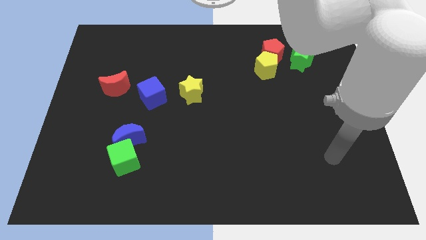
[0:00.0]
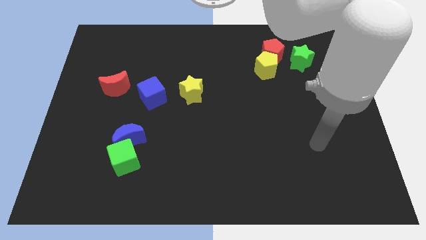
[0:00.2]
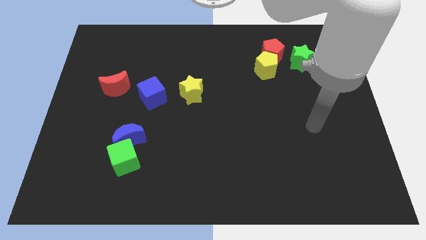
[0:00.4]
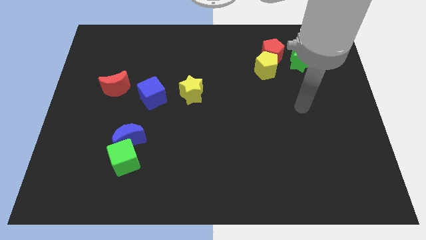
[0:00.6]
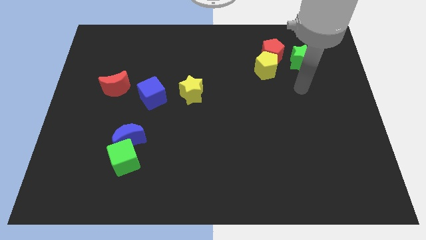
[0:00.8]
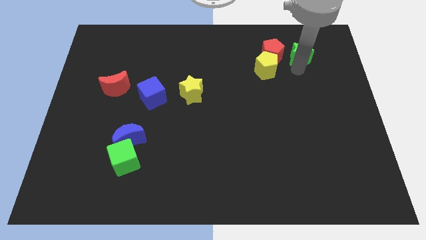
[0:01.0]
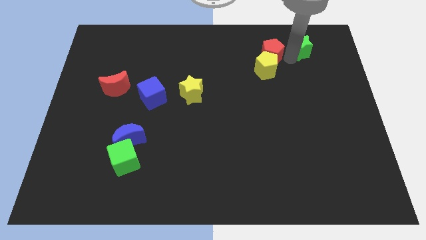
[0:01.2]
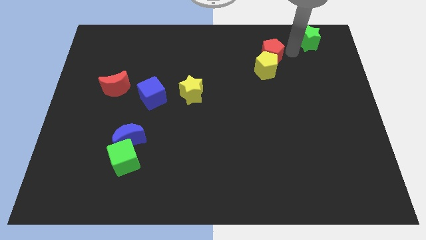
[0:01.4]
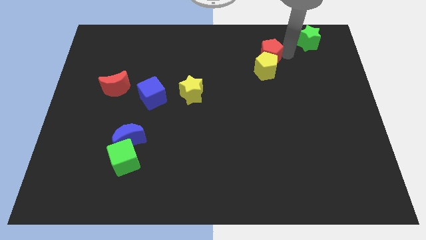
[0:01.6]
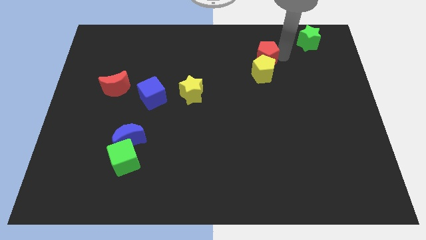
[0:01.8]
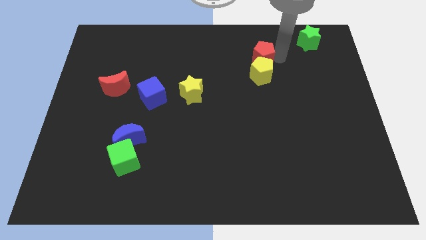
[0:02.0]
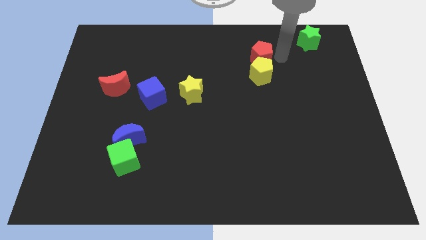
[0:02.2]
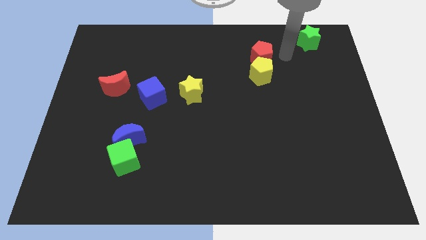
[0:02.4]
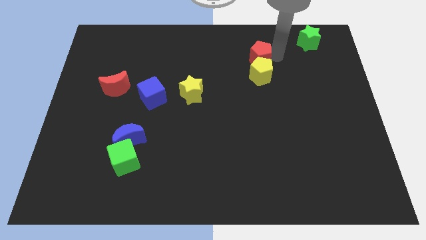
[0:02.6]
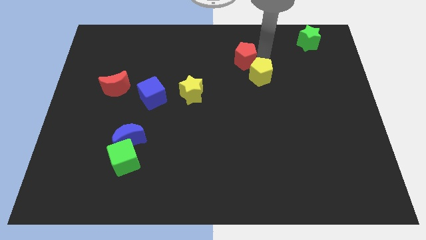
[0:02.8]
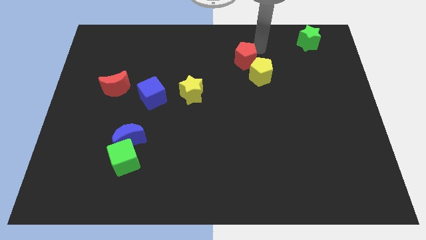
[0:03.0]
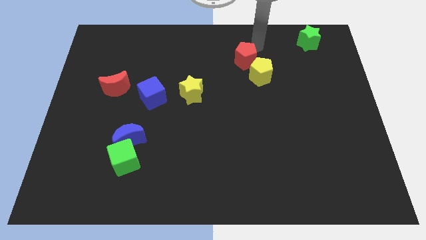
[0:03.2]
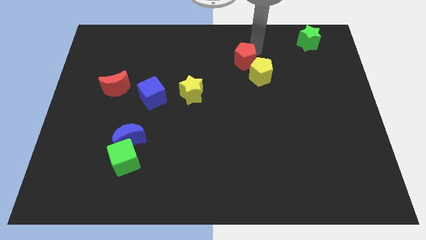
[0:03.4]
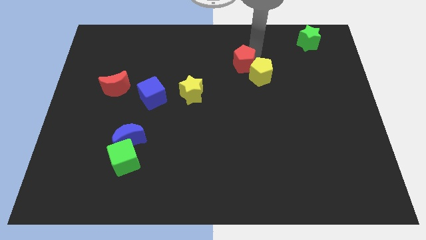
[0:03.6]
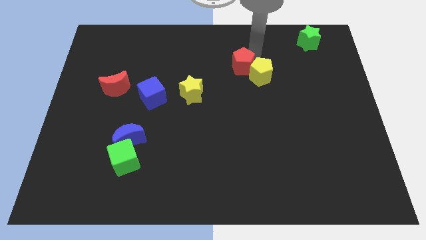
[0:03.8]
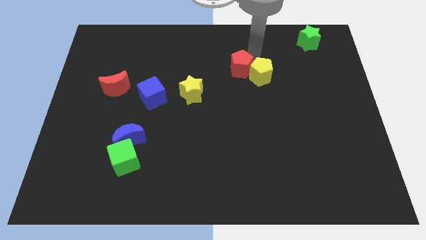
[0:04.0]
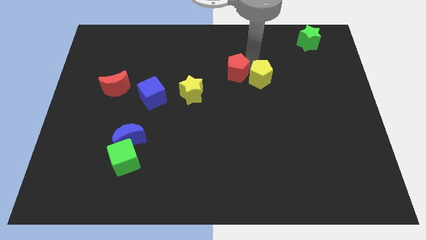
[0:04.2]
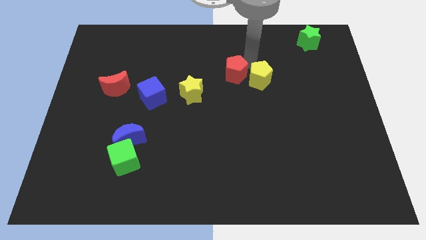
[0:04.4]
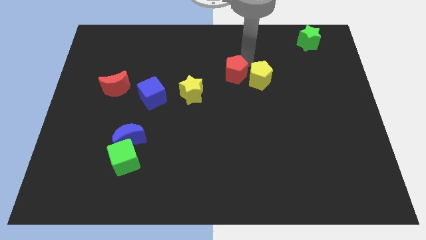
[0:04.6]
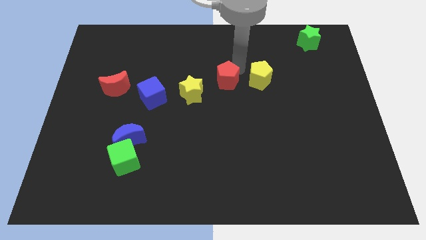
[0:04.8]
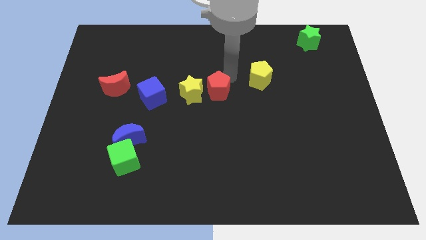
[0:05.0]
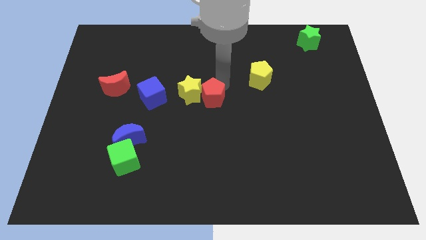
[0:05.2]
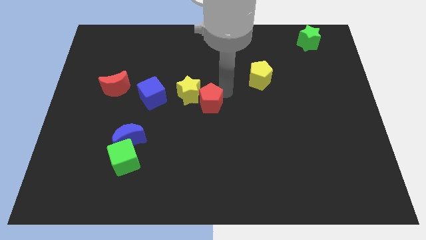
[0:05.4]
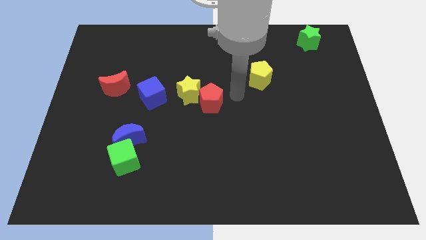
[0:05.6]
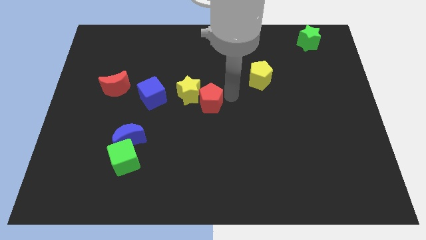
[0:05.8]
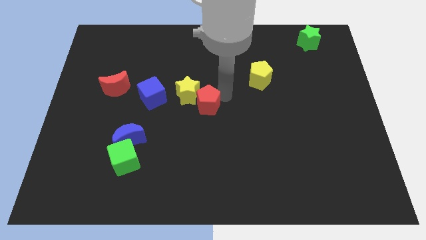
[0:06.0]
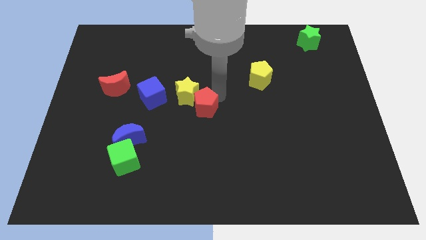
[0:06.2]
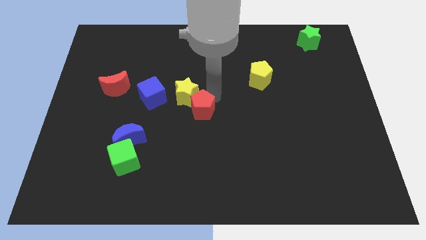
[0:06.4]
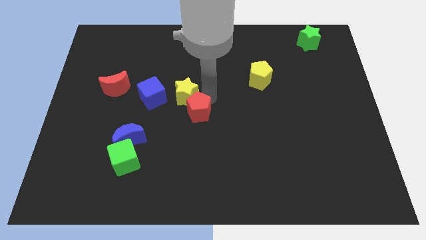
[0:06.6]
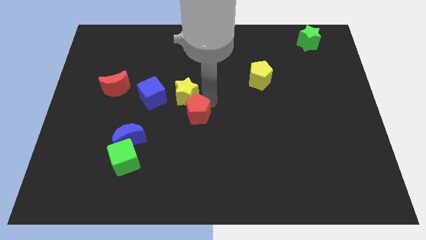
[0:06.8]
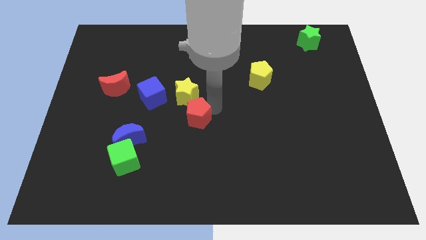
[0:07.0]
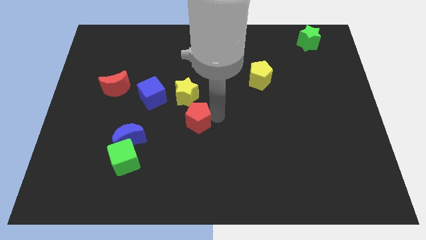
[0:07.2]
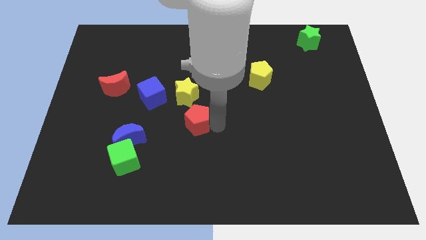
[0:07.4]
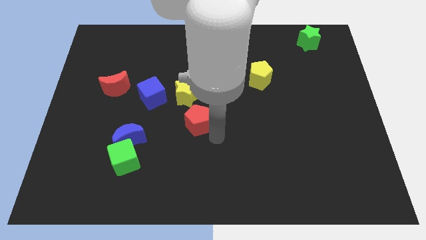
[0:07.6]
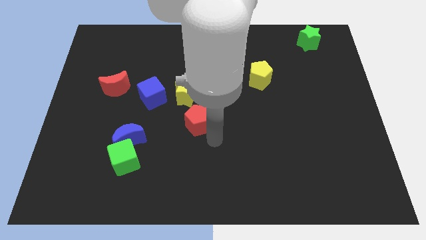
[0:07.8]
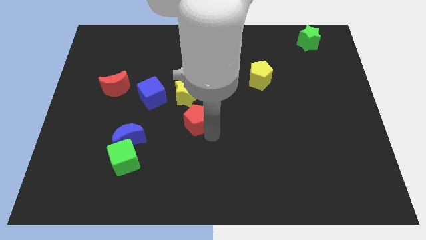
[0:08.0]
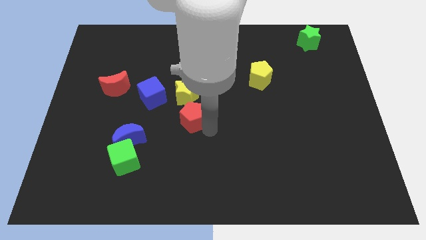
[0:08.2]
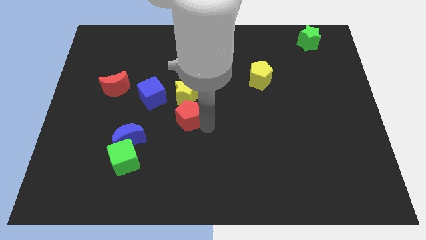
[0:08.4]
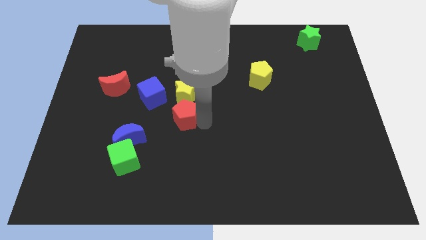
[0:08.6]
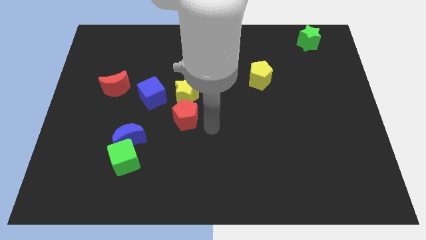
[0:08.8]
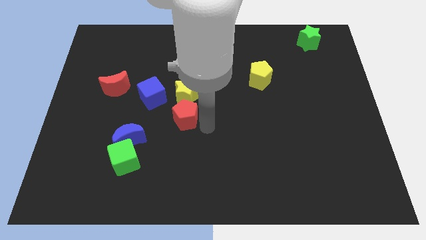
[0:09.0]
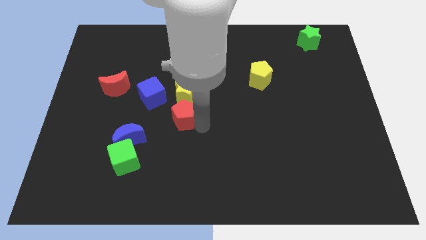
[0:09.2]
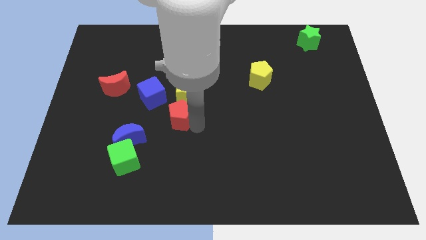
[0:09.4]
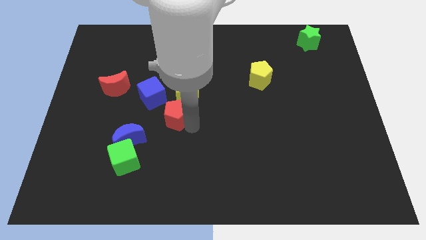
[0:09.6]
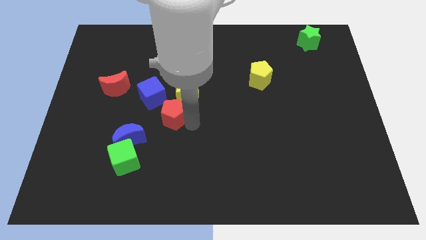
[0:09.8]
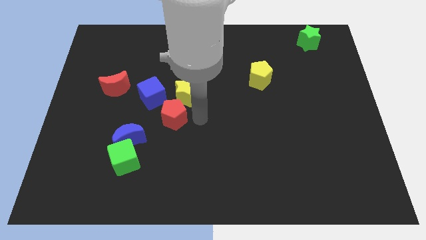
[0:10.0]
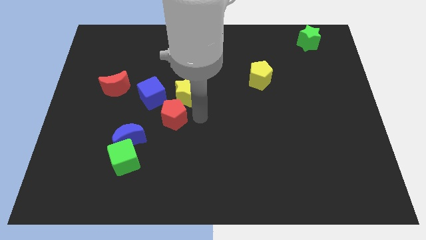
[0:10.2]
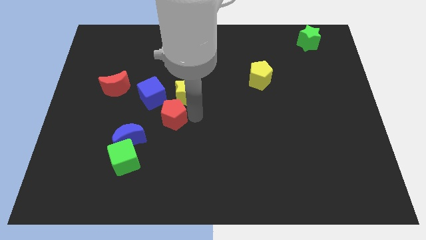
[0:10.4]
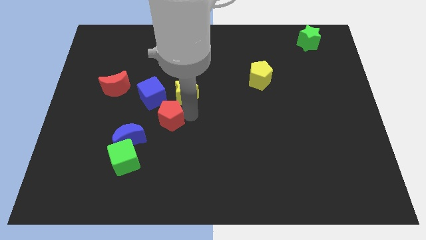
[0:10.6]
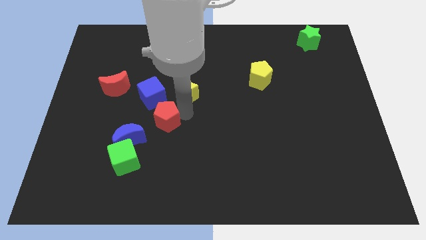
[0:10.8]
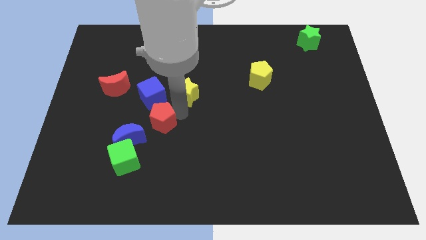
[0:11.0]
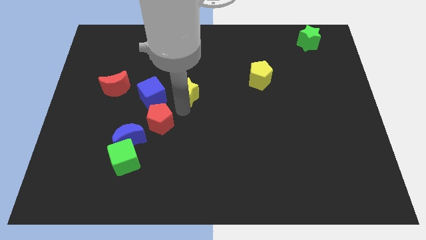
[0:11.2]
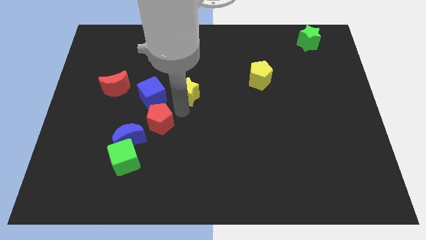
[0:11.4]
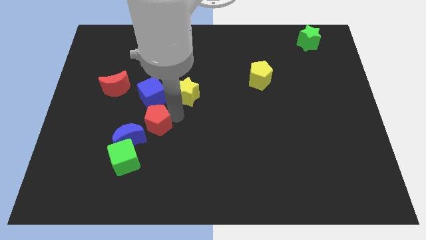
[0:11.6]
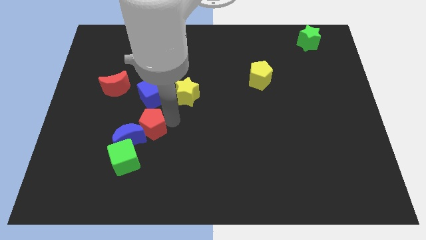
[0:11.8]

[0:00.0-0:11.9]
put the red pentagon to the blue moon

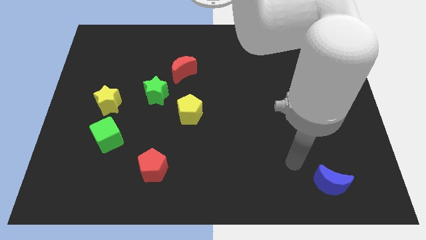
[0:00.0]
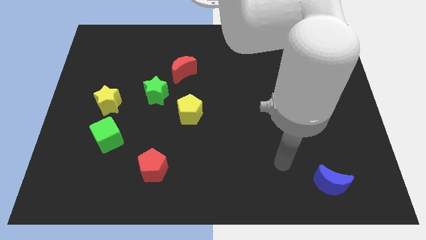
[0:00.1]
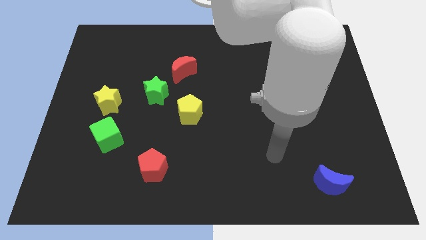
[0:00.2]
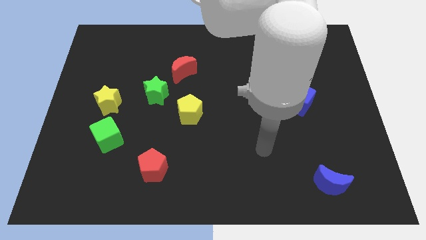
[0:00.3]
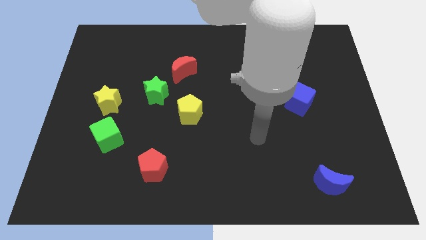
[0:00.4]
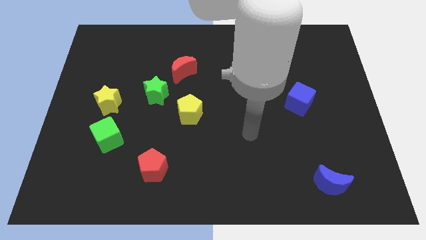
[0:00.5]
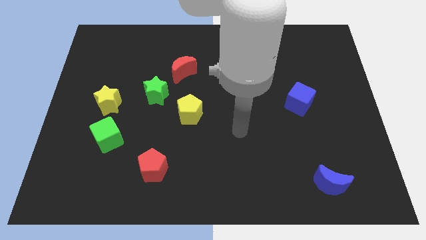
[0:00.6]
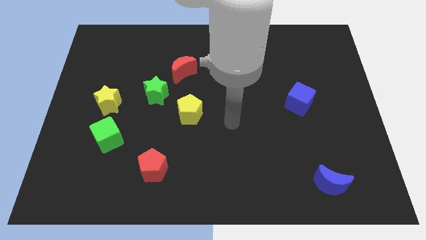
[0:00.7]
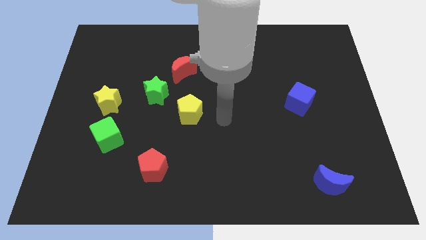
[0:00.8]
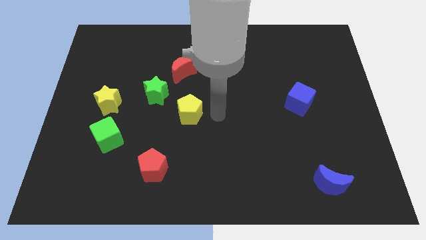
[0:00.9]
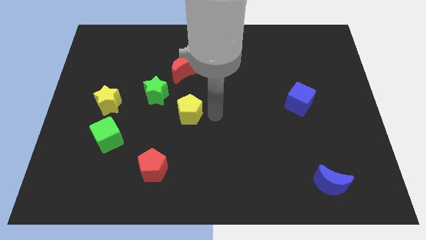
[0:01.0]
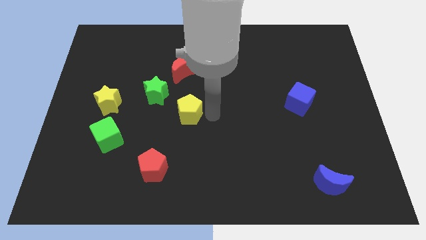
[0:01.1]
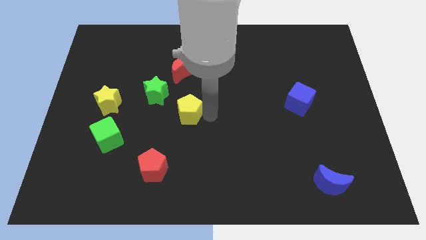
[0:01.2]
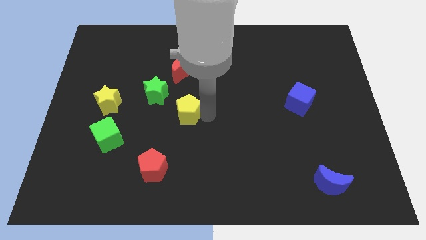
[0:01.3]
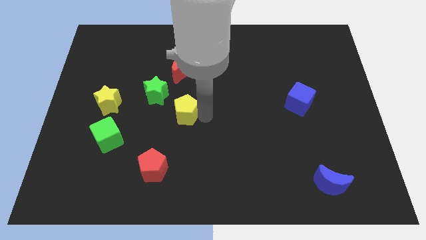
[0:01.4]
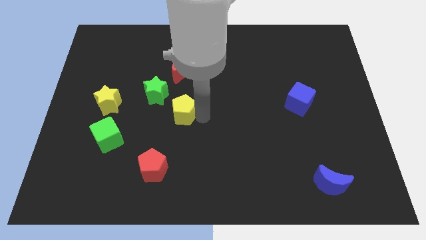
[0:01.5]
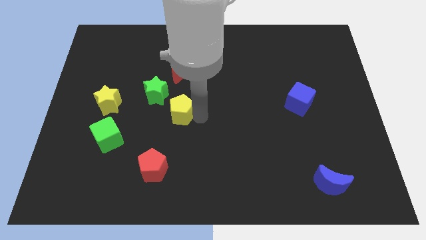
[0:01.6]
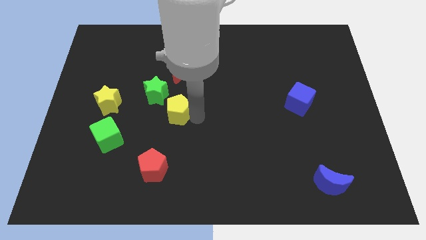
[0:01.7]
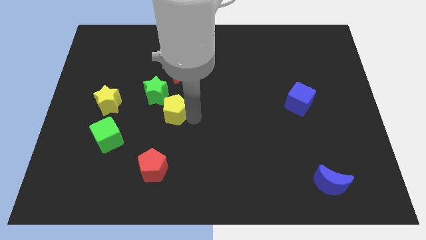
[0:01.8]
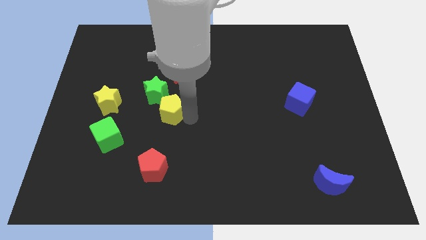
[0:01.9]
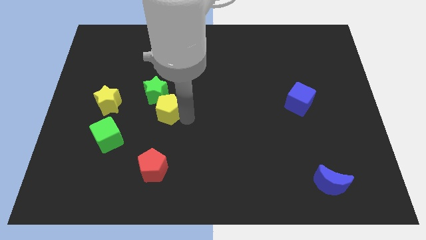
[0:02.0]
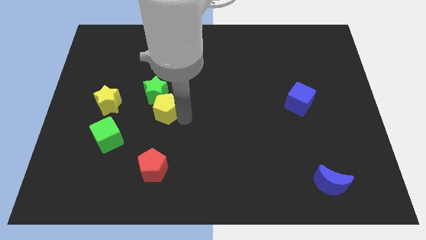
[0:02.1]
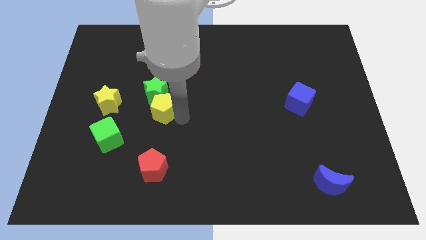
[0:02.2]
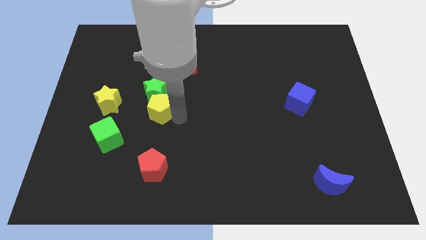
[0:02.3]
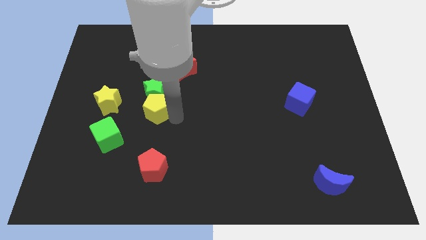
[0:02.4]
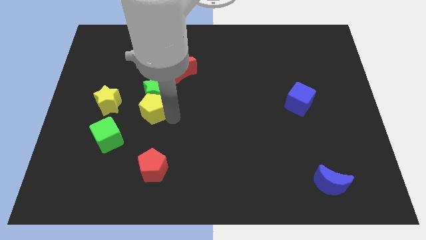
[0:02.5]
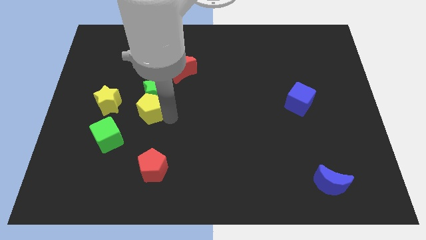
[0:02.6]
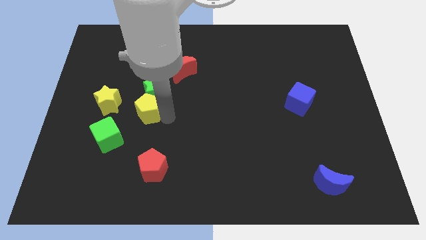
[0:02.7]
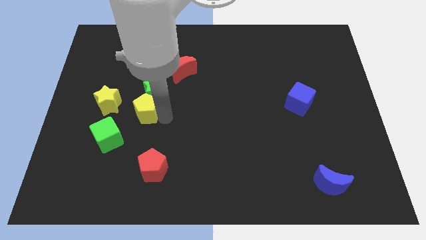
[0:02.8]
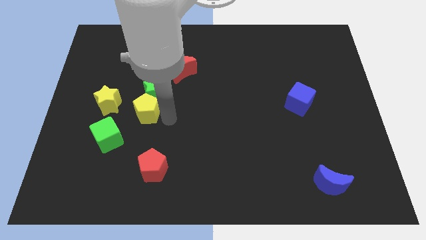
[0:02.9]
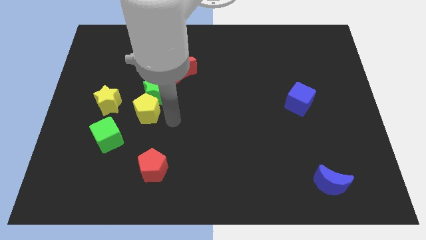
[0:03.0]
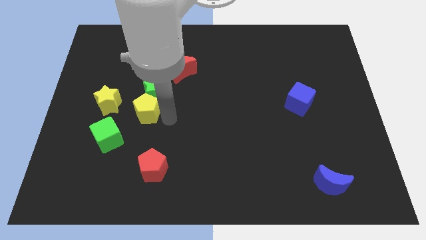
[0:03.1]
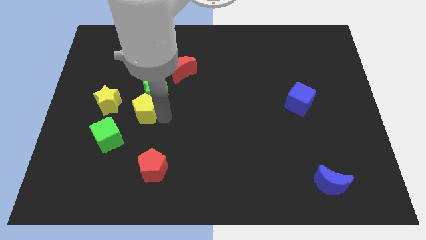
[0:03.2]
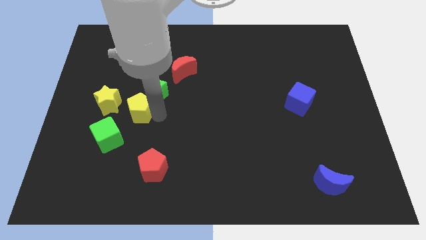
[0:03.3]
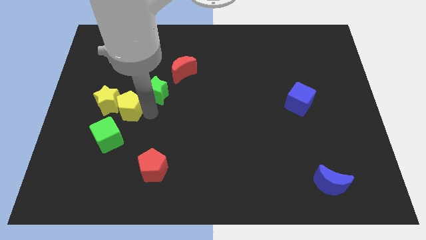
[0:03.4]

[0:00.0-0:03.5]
push the yellow pentagon next to the yellow star
